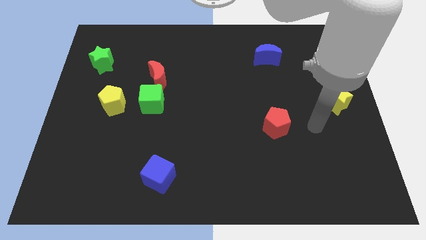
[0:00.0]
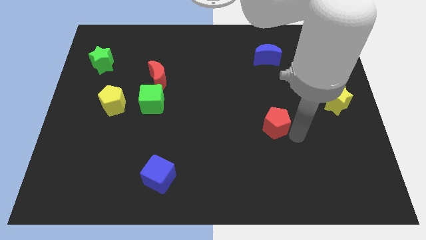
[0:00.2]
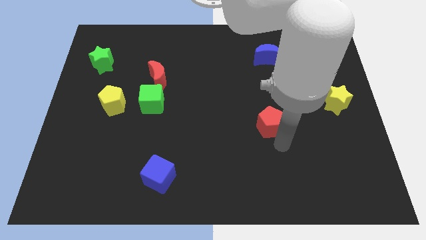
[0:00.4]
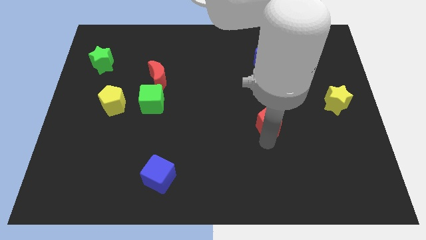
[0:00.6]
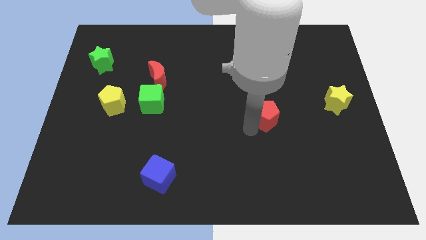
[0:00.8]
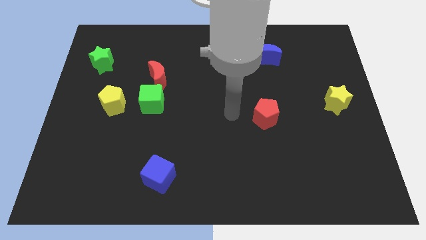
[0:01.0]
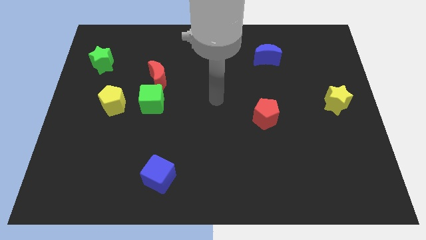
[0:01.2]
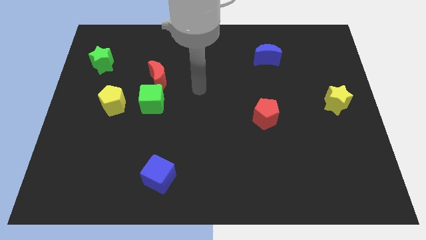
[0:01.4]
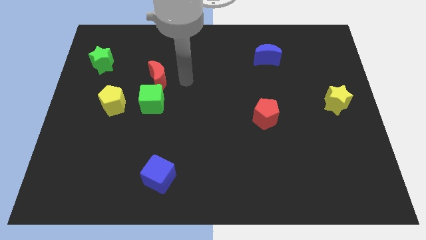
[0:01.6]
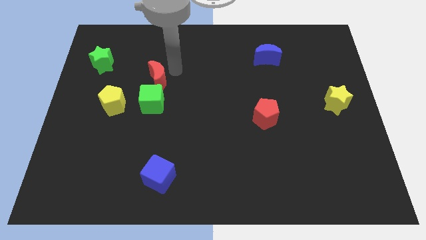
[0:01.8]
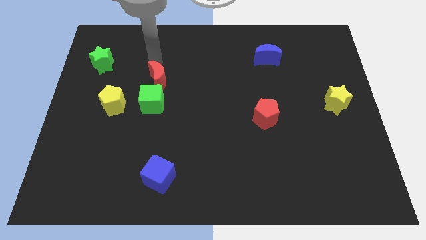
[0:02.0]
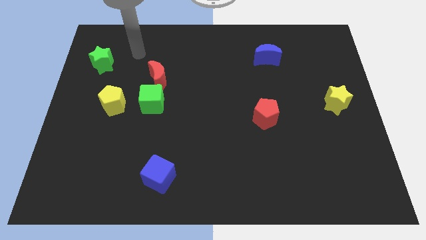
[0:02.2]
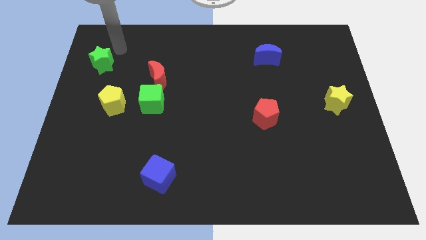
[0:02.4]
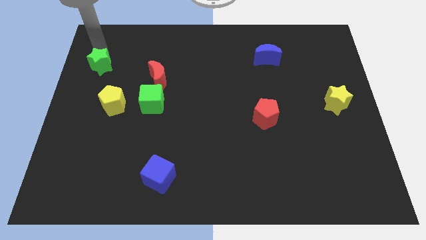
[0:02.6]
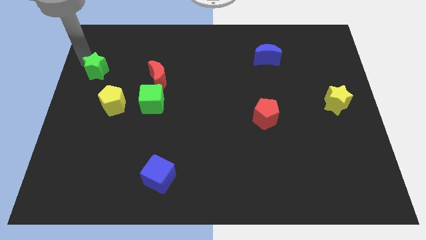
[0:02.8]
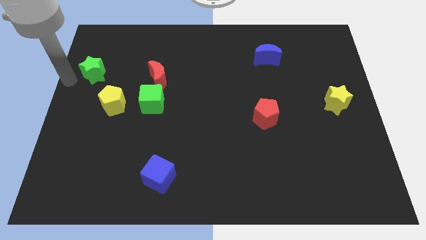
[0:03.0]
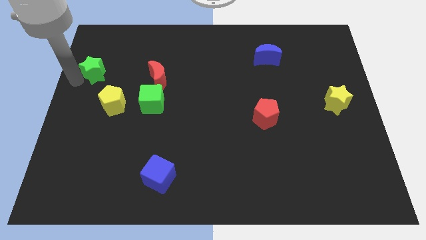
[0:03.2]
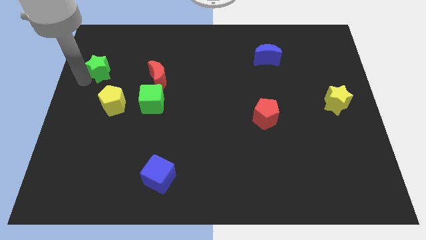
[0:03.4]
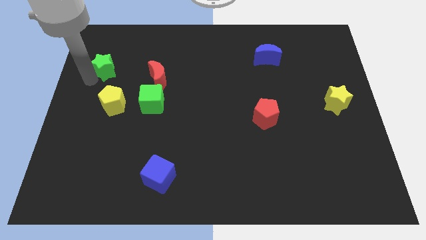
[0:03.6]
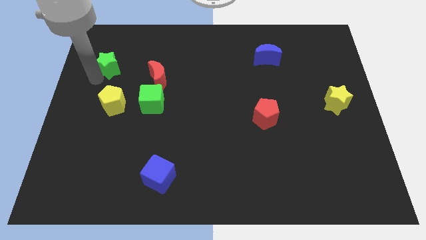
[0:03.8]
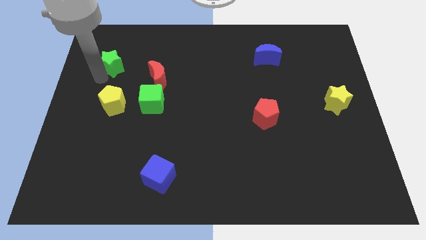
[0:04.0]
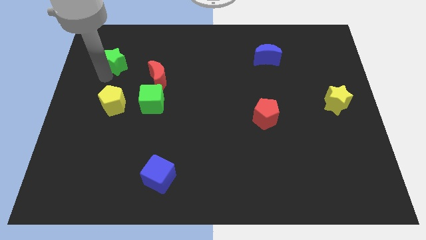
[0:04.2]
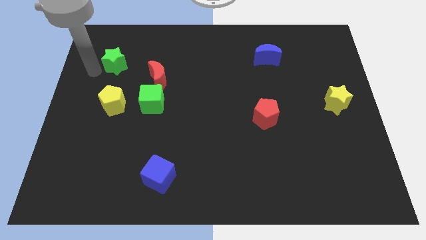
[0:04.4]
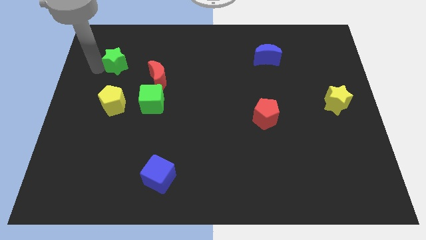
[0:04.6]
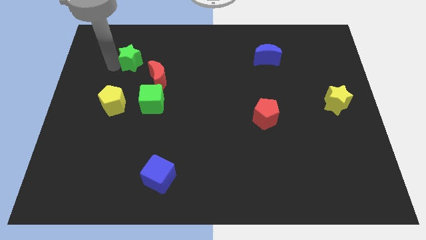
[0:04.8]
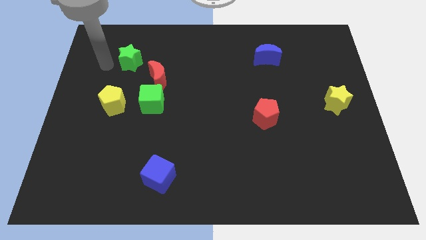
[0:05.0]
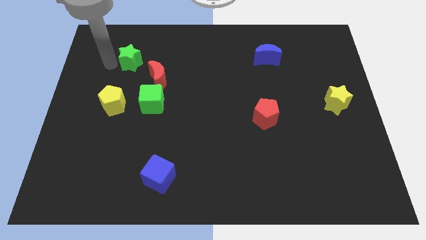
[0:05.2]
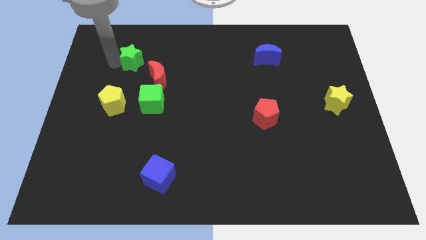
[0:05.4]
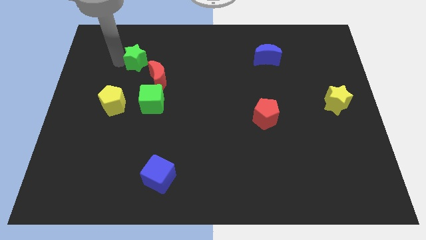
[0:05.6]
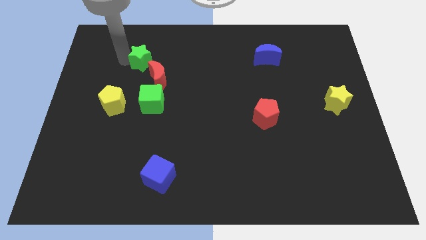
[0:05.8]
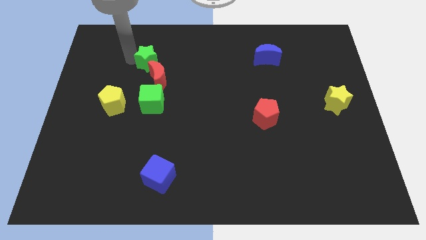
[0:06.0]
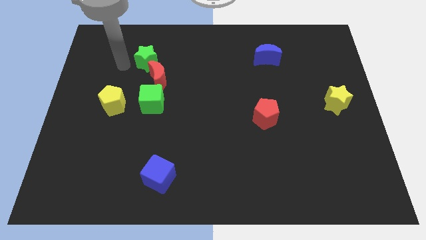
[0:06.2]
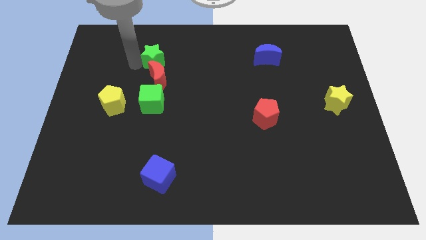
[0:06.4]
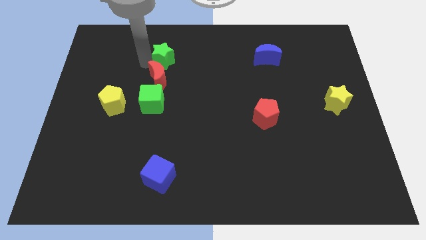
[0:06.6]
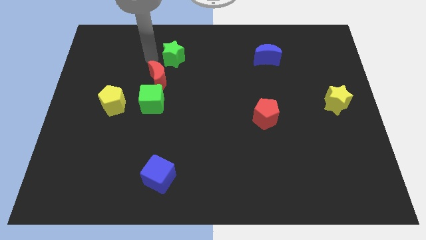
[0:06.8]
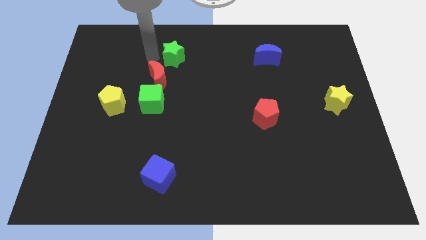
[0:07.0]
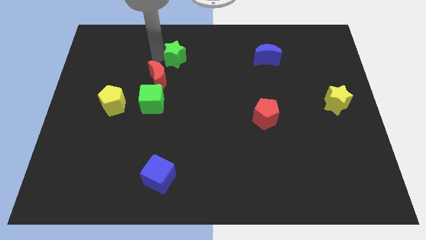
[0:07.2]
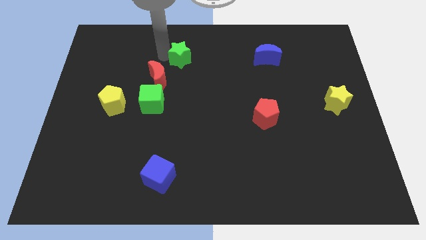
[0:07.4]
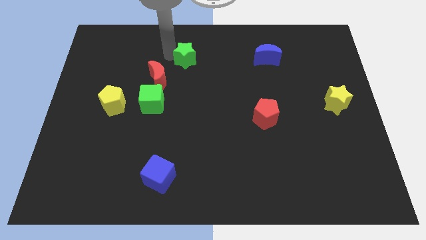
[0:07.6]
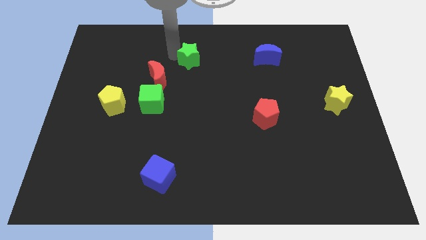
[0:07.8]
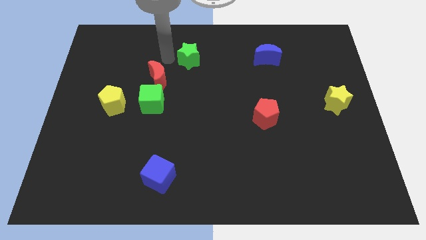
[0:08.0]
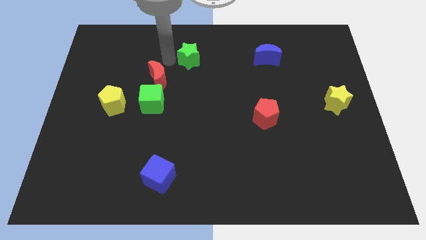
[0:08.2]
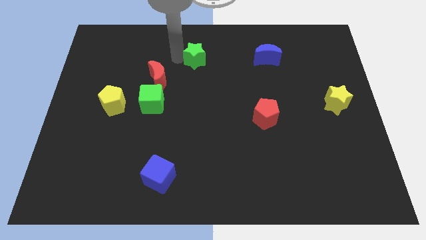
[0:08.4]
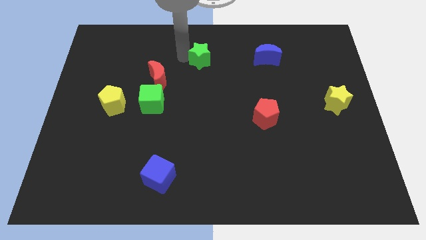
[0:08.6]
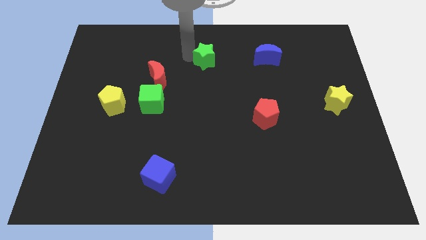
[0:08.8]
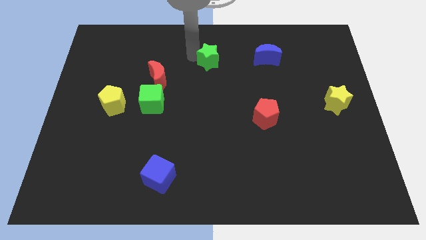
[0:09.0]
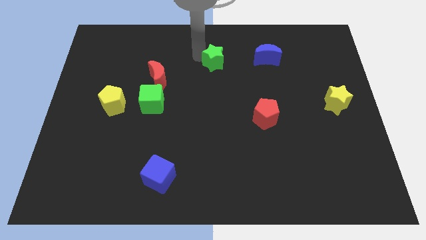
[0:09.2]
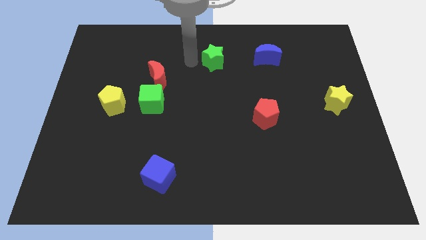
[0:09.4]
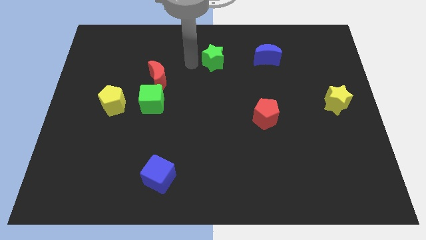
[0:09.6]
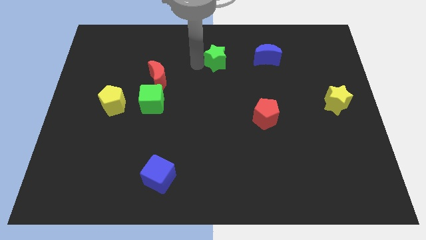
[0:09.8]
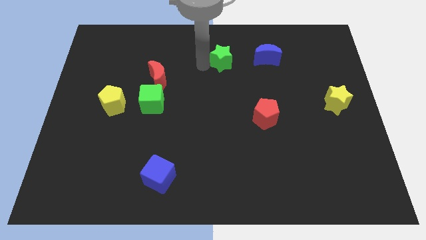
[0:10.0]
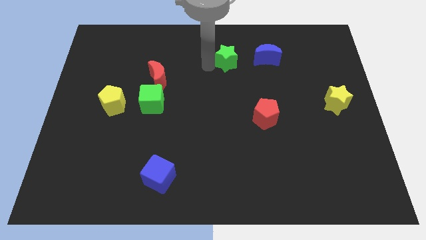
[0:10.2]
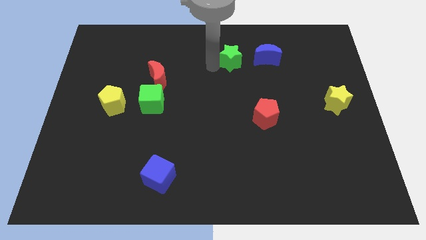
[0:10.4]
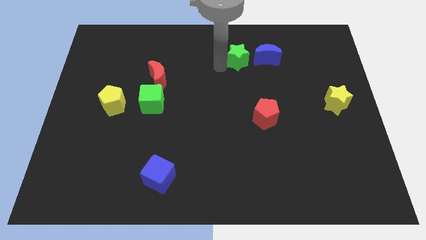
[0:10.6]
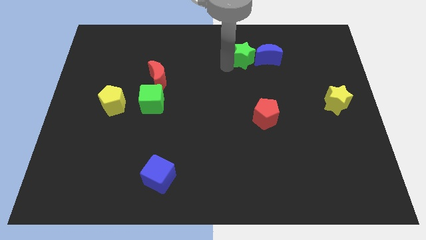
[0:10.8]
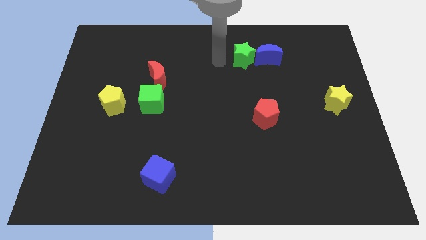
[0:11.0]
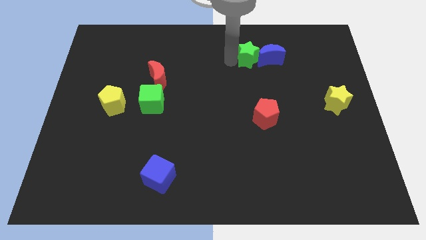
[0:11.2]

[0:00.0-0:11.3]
put the green star to the blue moon

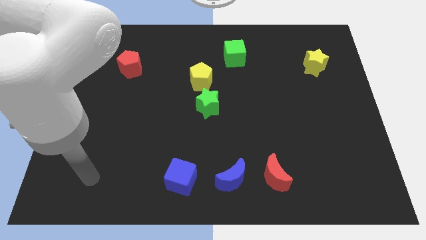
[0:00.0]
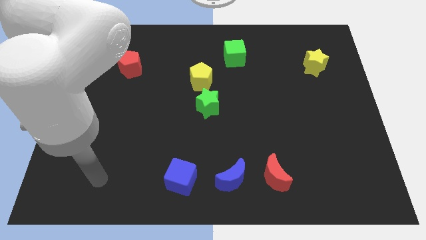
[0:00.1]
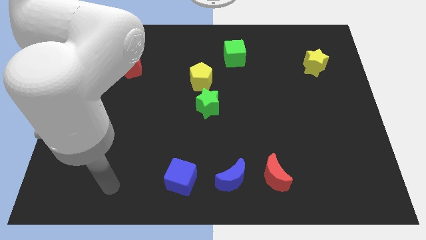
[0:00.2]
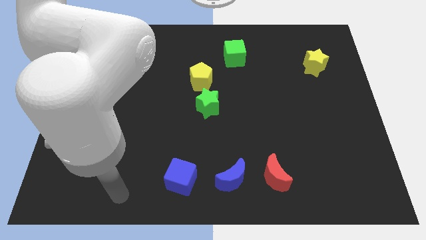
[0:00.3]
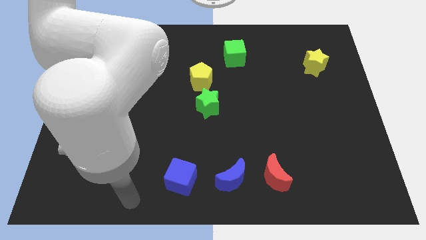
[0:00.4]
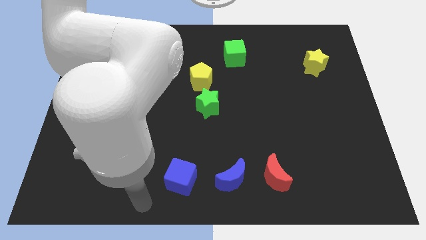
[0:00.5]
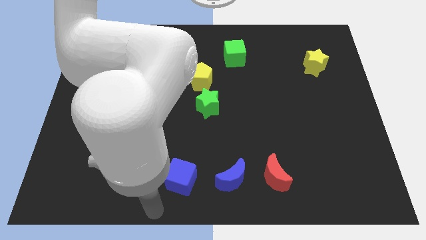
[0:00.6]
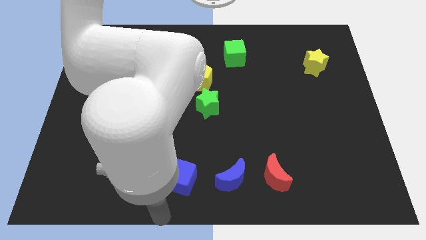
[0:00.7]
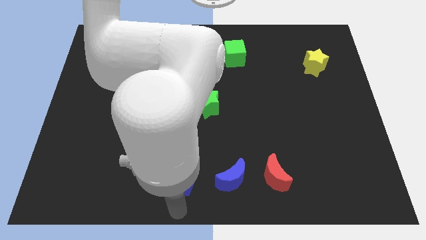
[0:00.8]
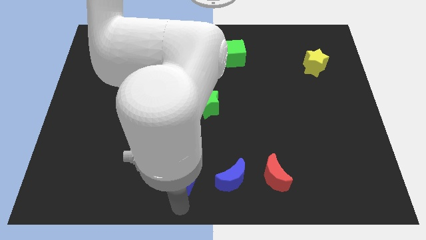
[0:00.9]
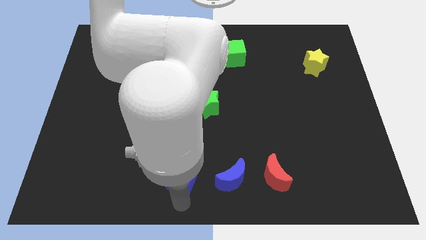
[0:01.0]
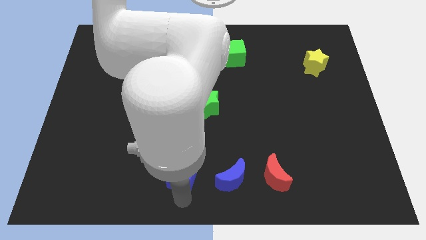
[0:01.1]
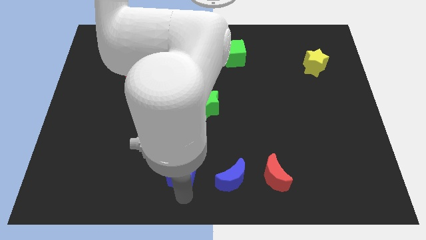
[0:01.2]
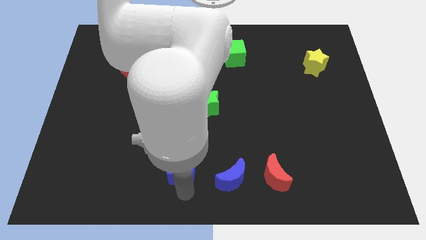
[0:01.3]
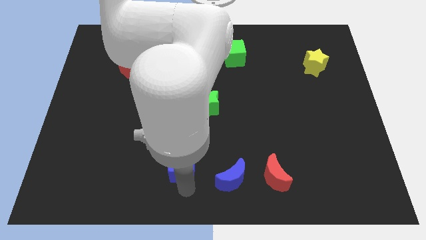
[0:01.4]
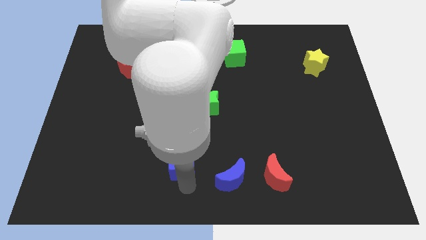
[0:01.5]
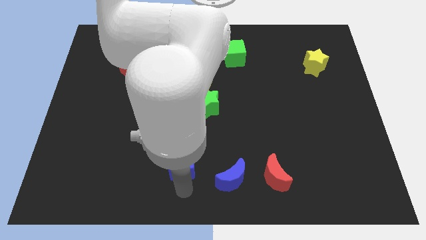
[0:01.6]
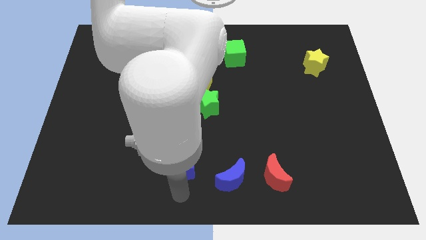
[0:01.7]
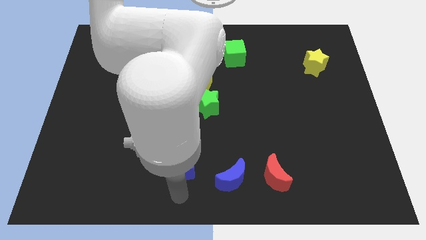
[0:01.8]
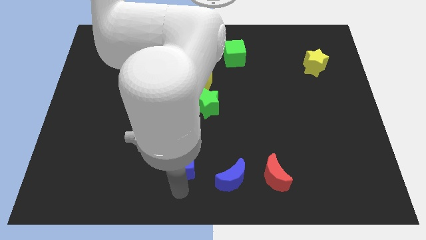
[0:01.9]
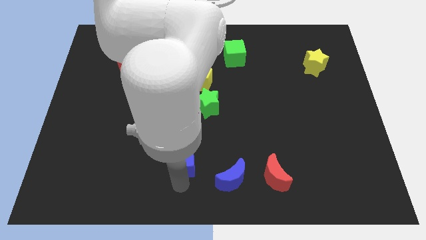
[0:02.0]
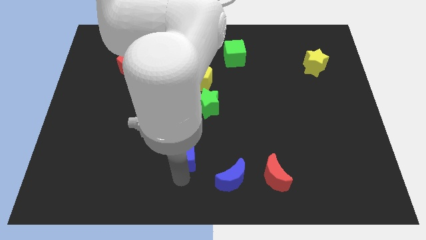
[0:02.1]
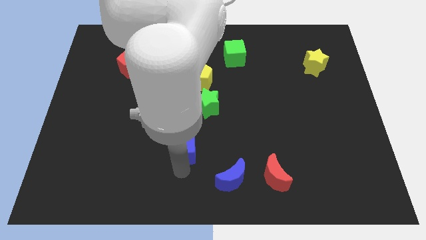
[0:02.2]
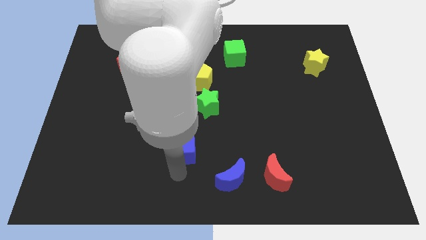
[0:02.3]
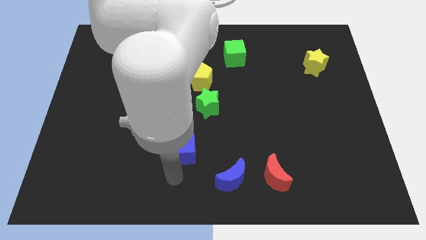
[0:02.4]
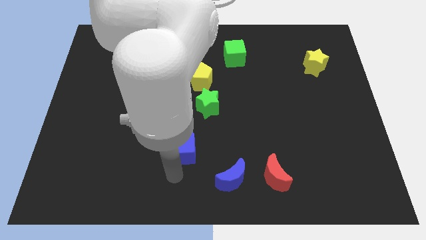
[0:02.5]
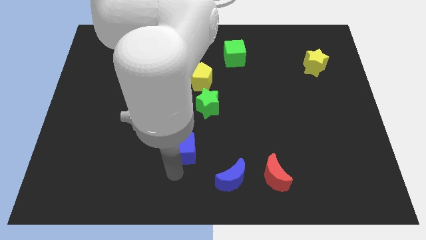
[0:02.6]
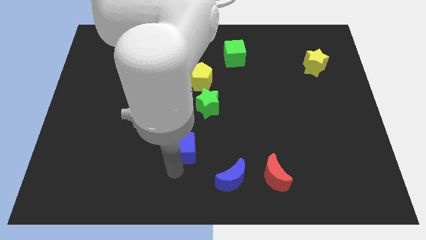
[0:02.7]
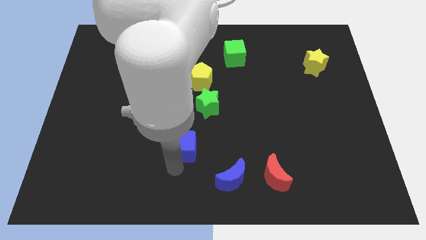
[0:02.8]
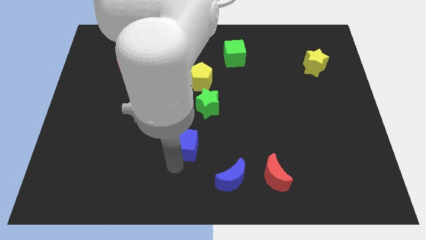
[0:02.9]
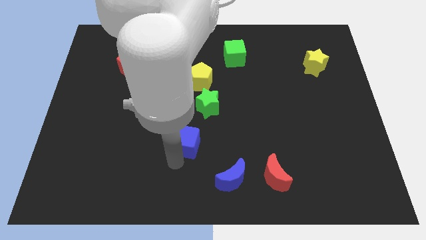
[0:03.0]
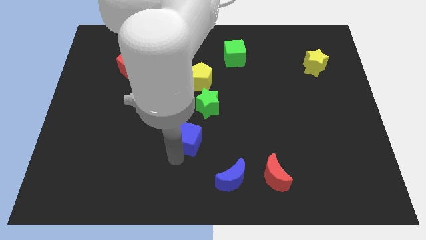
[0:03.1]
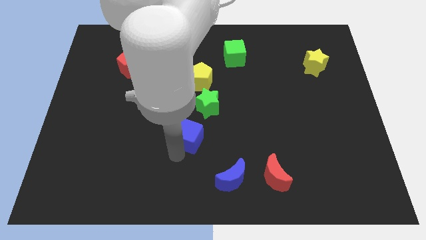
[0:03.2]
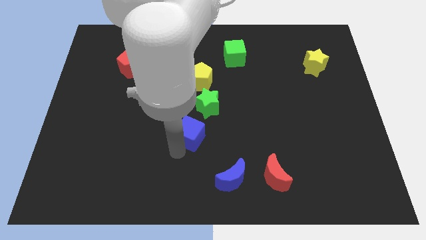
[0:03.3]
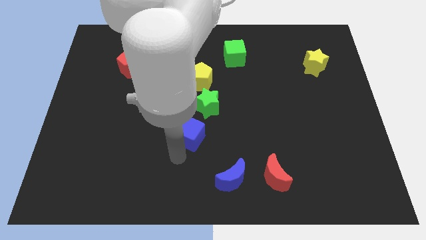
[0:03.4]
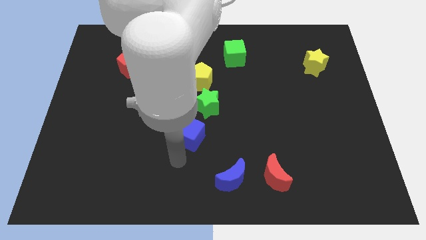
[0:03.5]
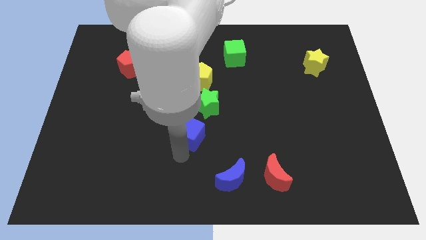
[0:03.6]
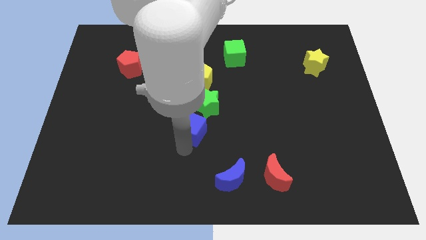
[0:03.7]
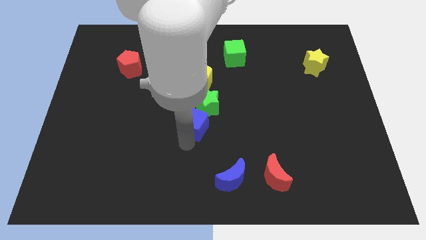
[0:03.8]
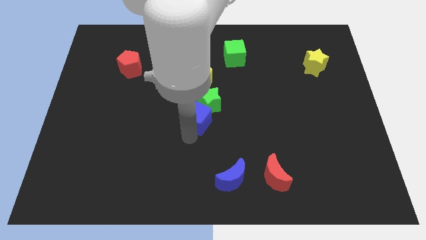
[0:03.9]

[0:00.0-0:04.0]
push the blue cube next to the green star
